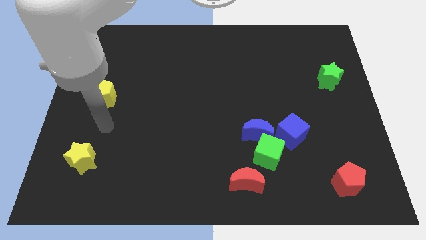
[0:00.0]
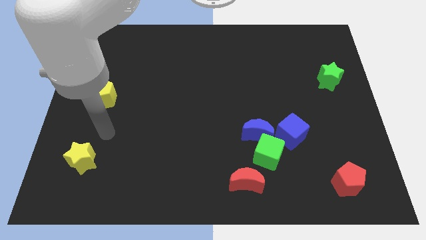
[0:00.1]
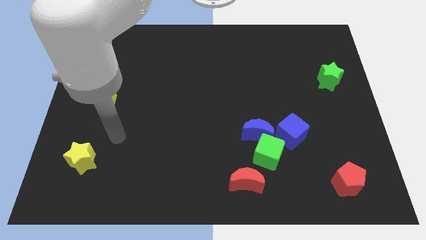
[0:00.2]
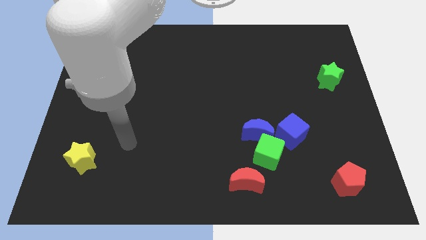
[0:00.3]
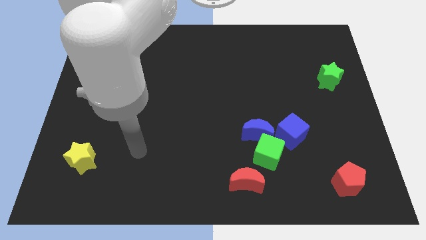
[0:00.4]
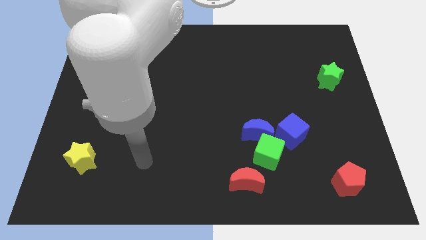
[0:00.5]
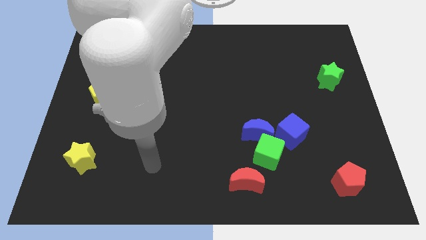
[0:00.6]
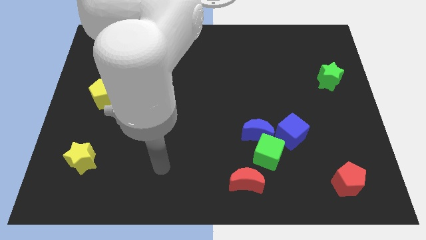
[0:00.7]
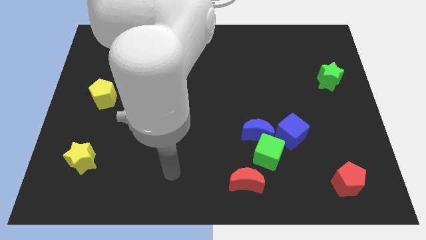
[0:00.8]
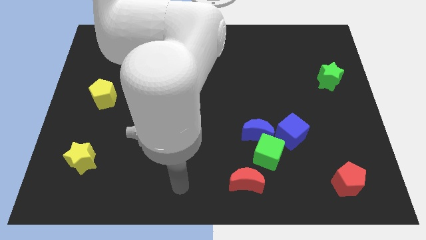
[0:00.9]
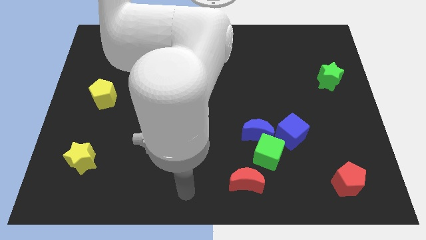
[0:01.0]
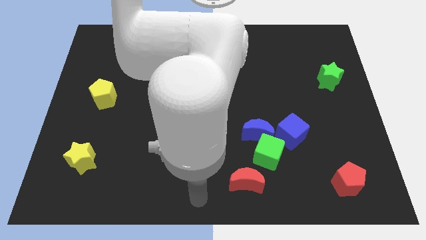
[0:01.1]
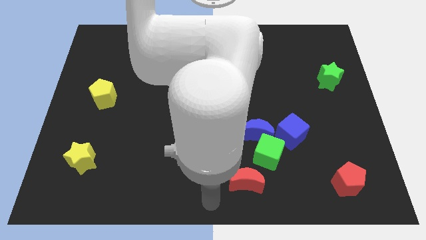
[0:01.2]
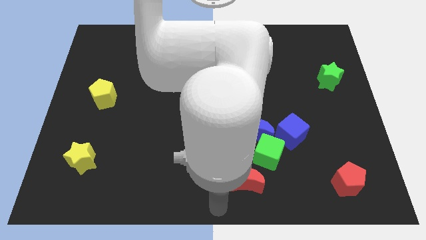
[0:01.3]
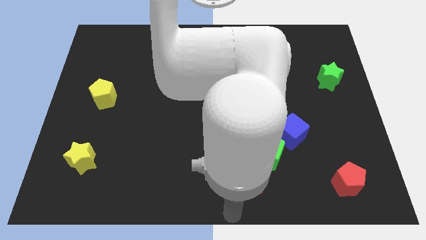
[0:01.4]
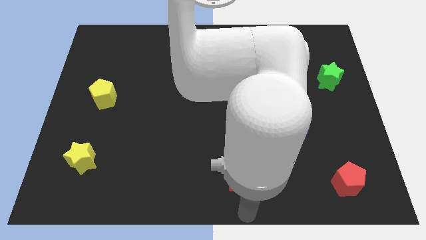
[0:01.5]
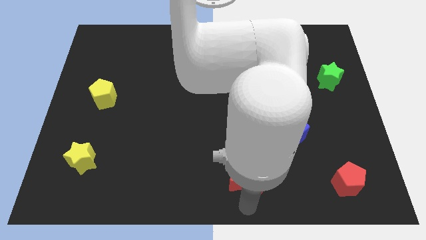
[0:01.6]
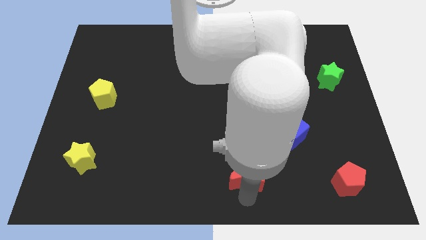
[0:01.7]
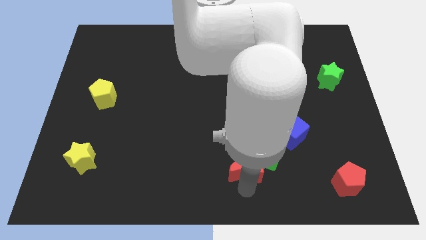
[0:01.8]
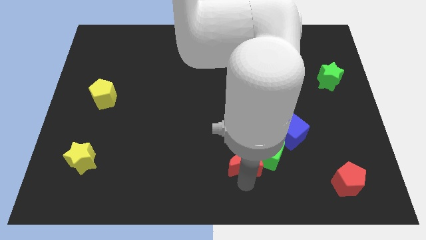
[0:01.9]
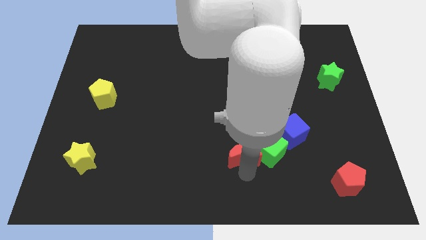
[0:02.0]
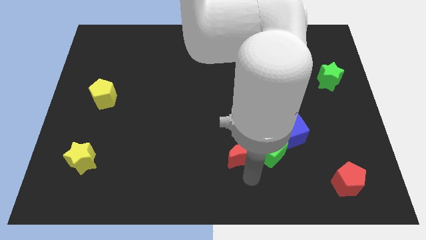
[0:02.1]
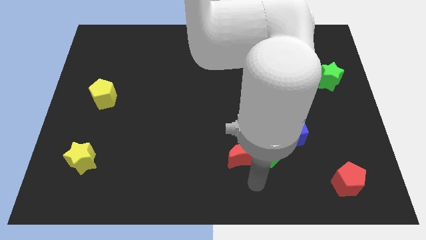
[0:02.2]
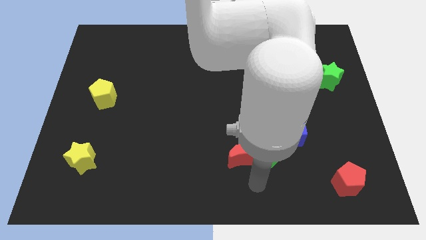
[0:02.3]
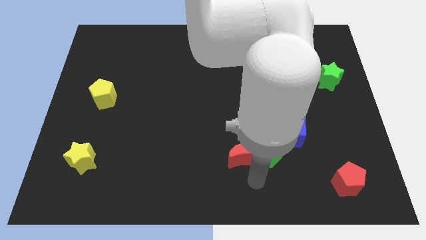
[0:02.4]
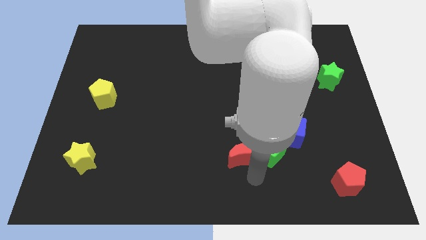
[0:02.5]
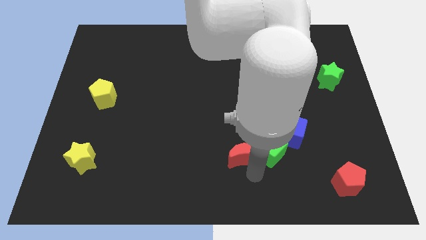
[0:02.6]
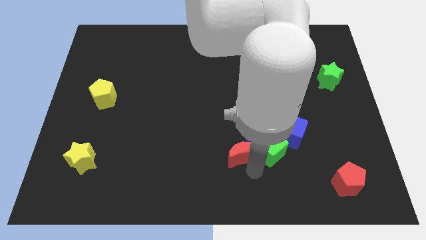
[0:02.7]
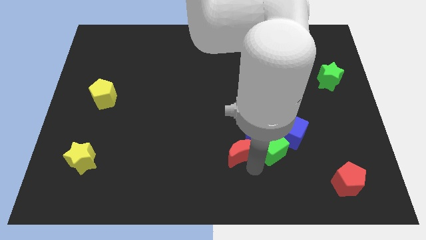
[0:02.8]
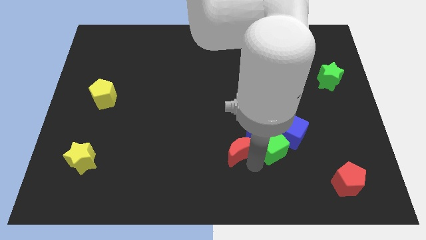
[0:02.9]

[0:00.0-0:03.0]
push the red moon a little up

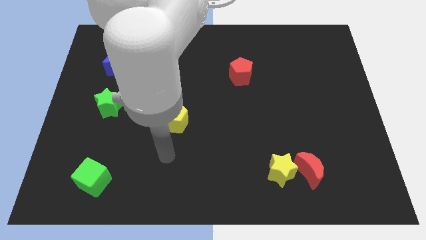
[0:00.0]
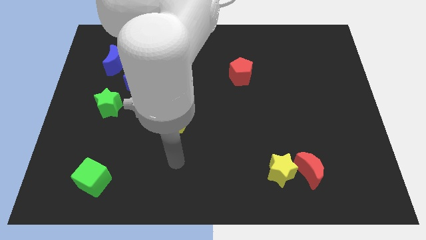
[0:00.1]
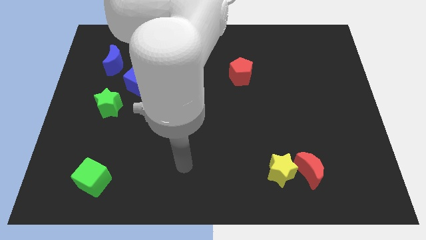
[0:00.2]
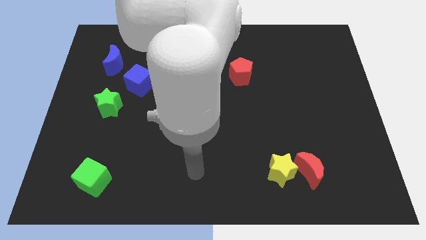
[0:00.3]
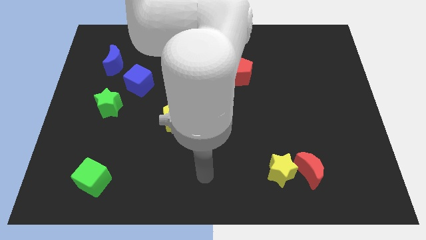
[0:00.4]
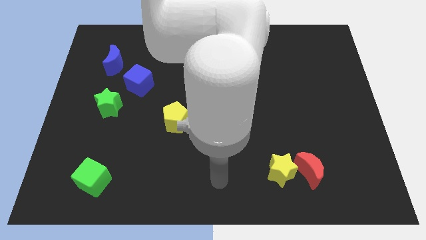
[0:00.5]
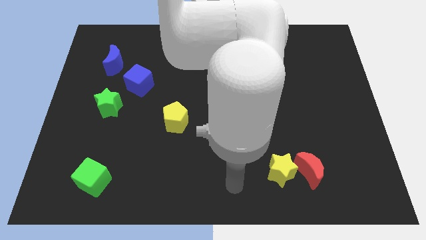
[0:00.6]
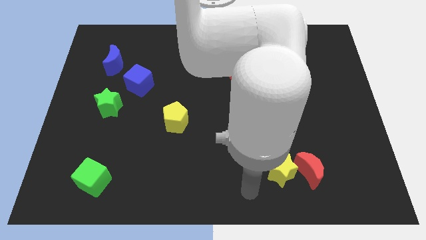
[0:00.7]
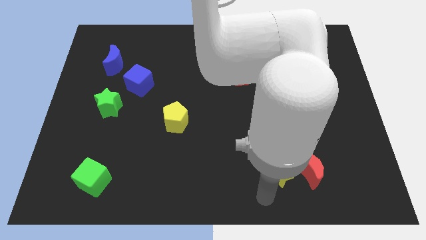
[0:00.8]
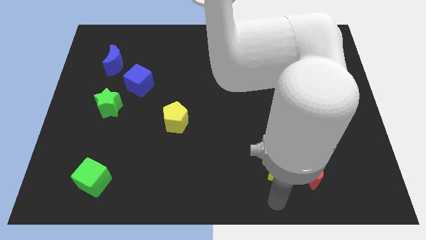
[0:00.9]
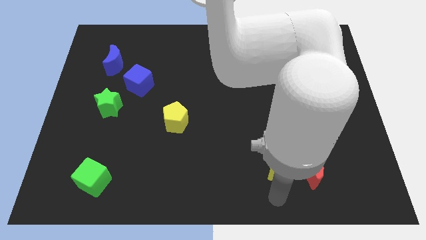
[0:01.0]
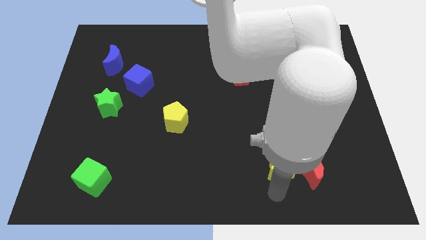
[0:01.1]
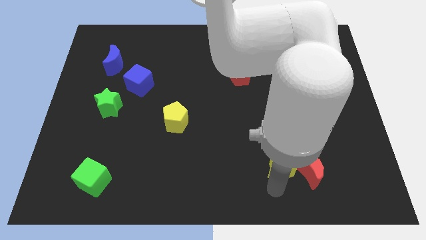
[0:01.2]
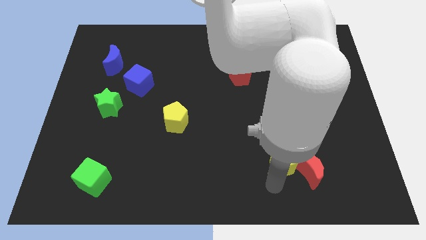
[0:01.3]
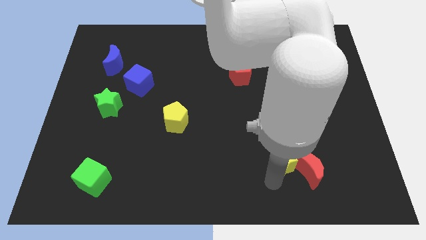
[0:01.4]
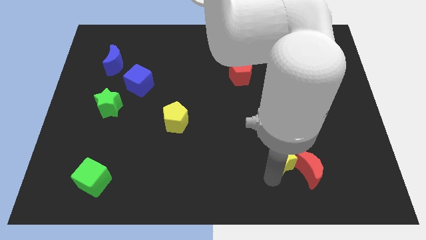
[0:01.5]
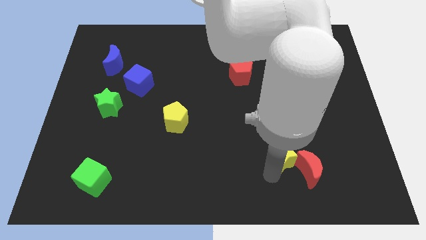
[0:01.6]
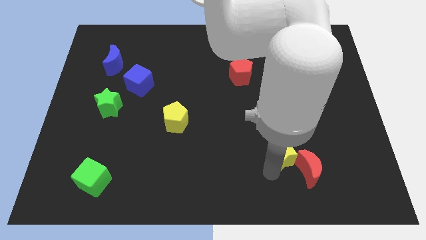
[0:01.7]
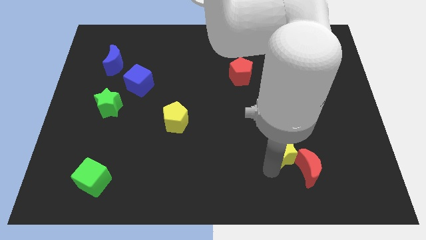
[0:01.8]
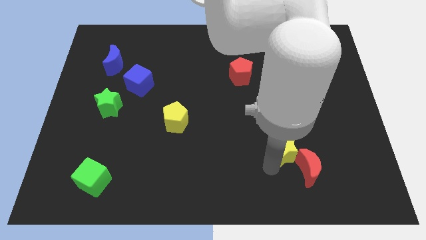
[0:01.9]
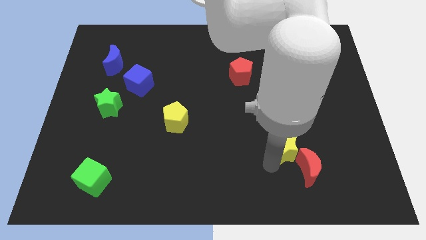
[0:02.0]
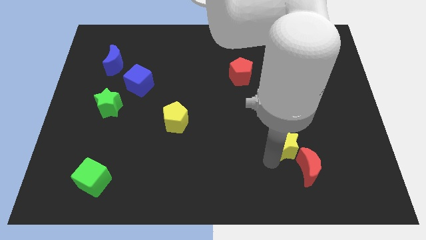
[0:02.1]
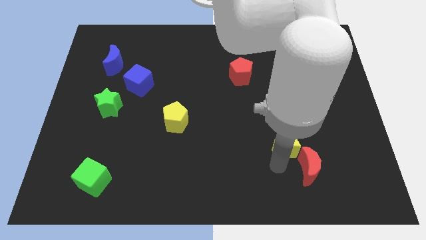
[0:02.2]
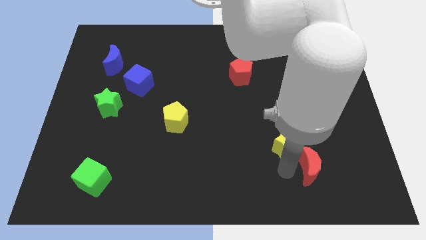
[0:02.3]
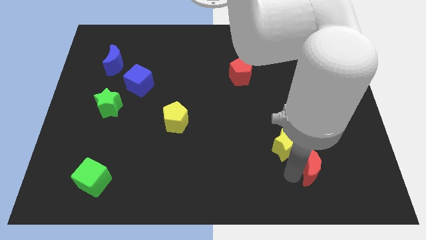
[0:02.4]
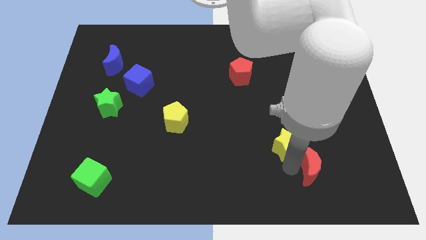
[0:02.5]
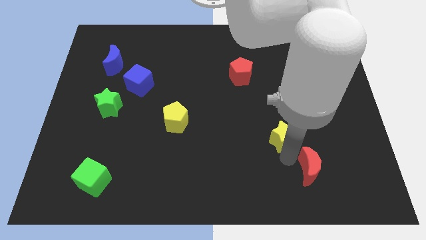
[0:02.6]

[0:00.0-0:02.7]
push the yellow star upwards a little

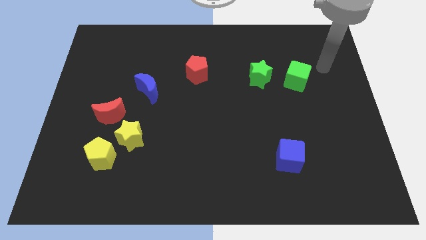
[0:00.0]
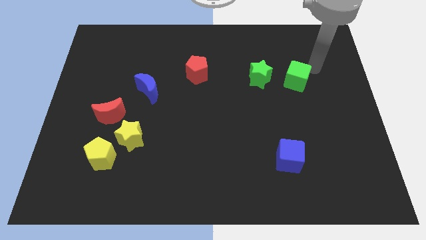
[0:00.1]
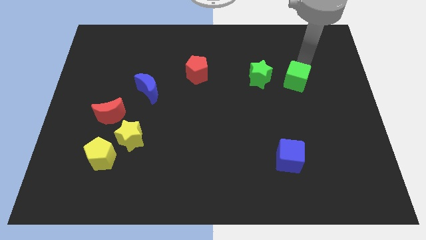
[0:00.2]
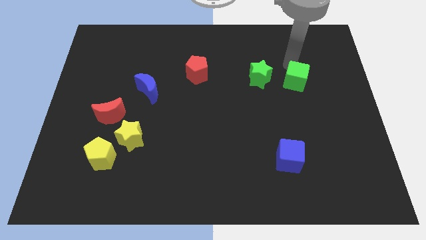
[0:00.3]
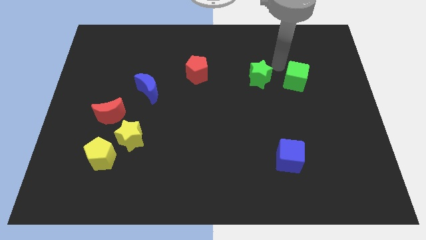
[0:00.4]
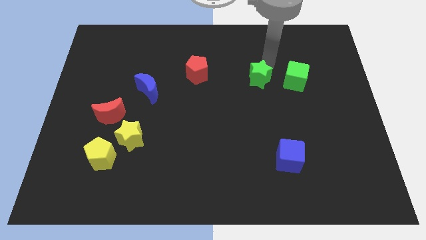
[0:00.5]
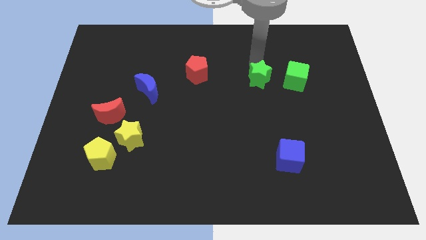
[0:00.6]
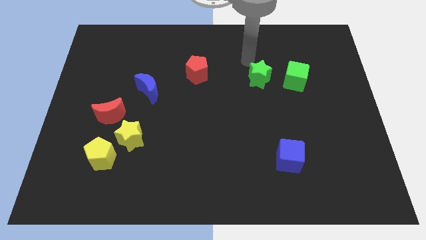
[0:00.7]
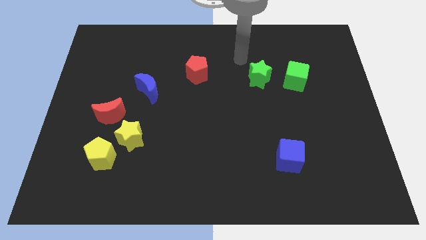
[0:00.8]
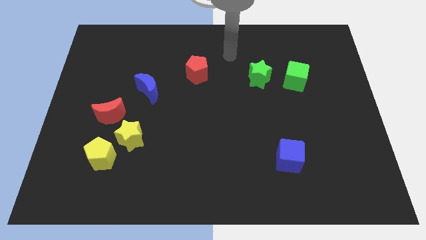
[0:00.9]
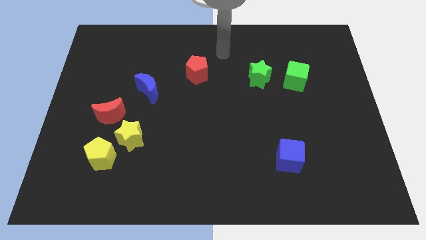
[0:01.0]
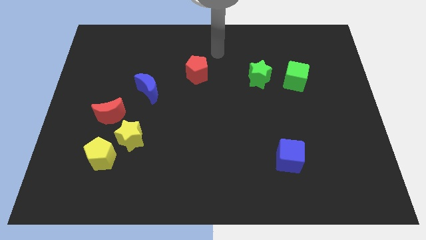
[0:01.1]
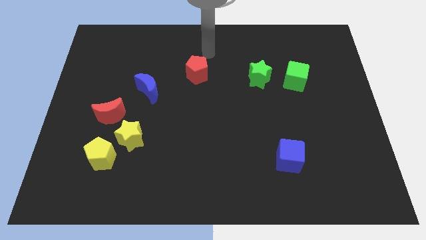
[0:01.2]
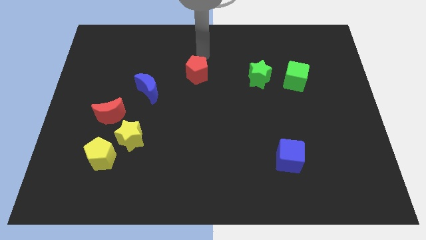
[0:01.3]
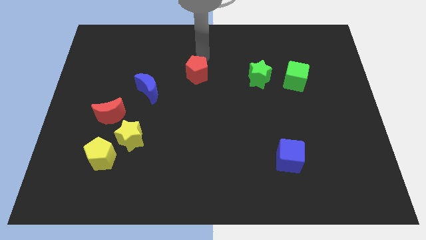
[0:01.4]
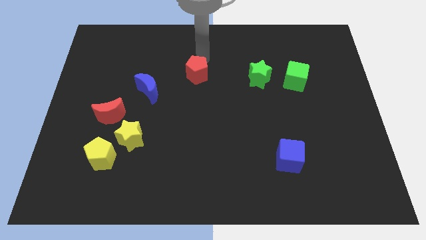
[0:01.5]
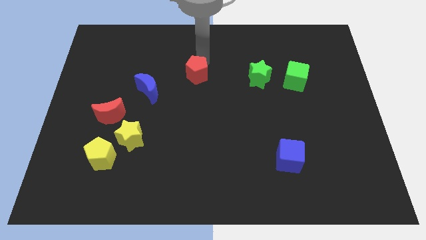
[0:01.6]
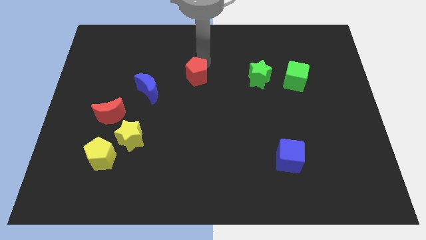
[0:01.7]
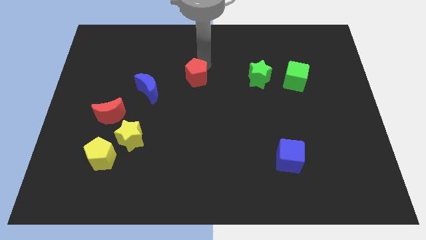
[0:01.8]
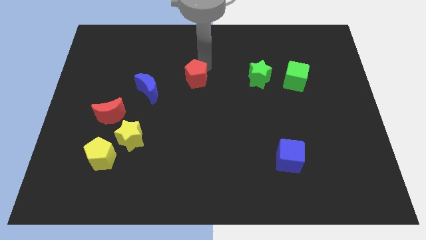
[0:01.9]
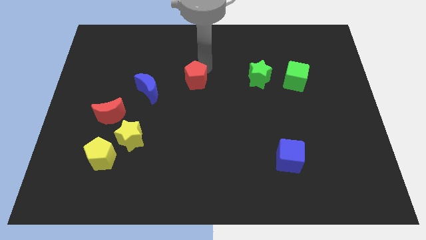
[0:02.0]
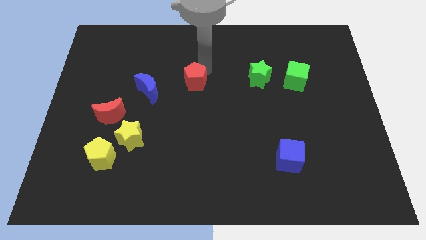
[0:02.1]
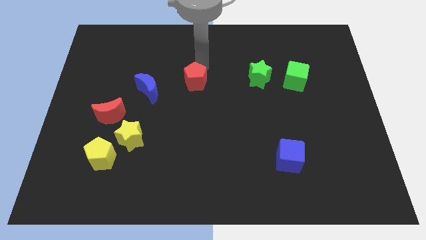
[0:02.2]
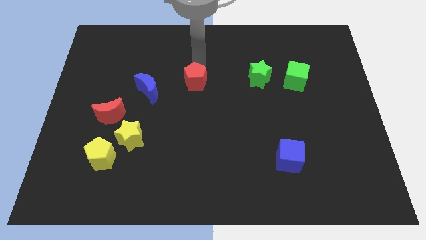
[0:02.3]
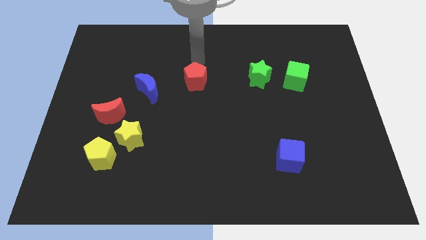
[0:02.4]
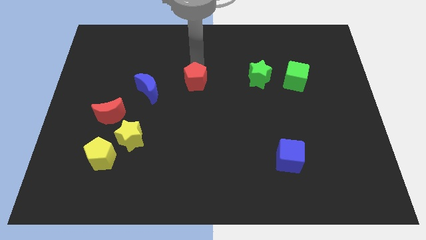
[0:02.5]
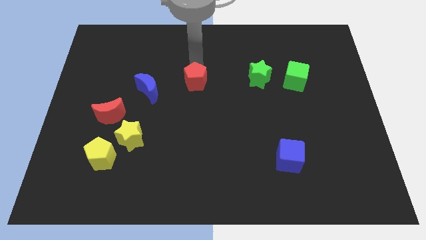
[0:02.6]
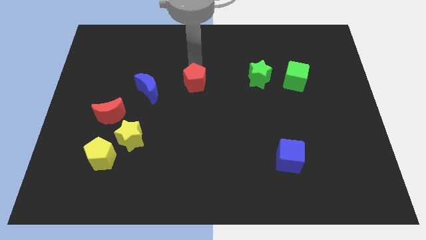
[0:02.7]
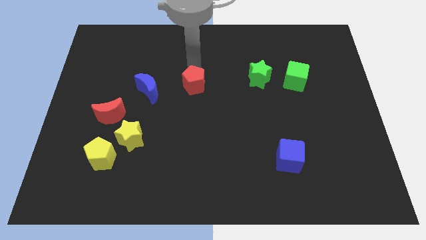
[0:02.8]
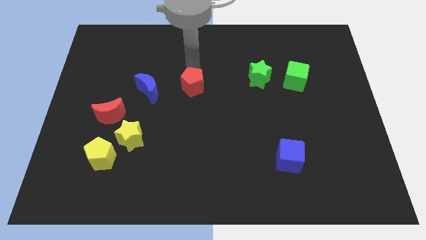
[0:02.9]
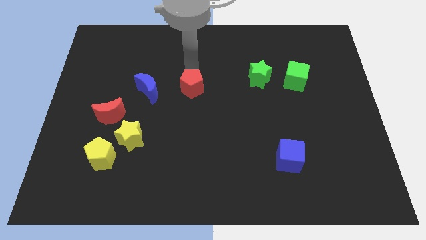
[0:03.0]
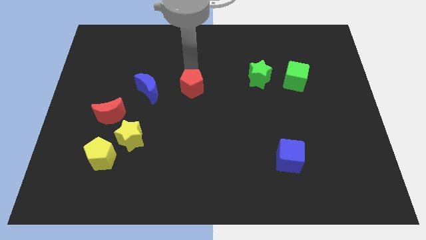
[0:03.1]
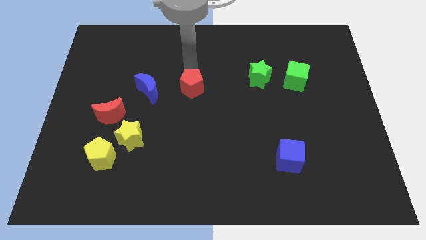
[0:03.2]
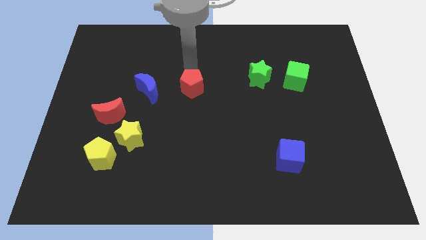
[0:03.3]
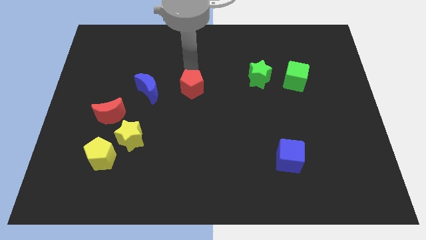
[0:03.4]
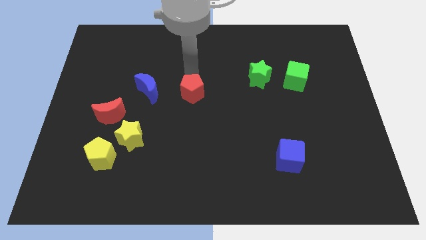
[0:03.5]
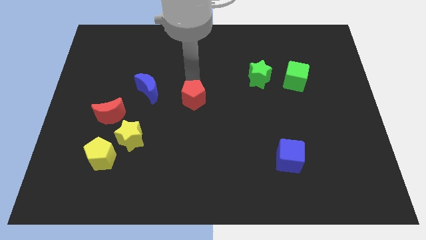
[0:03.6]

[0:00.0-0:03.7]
move the red pentagon a bit downwards
